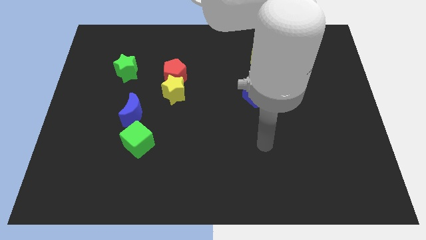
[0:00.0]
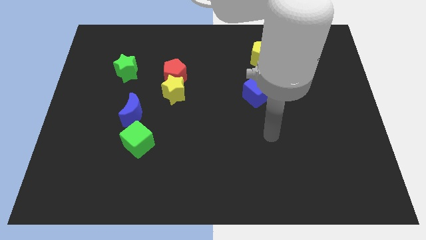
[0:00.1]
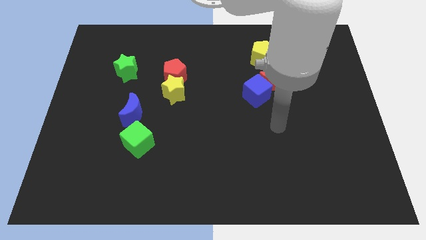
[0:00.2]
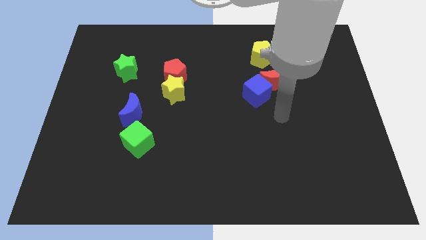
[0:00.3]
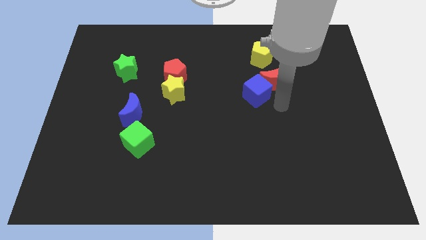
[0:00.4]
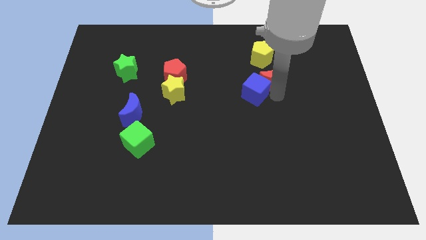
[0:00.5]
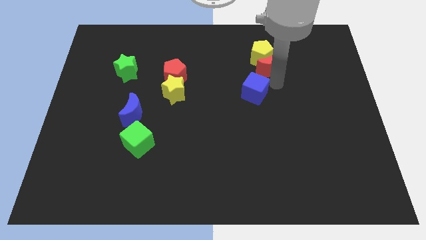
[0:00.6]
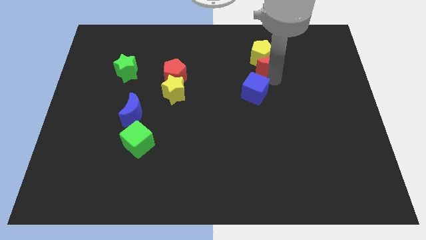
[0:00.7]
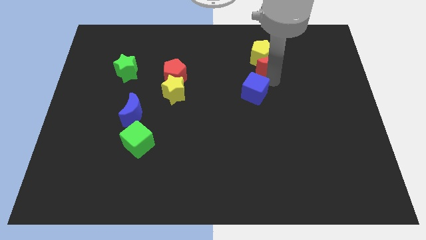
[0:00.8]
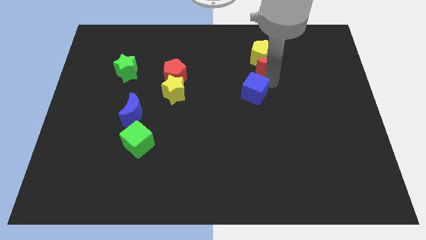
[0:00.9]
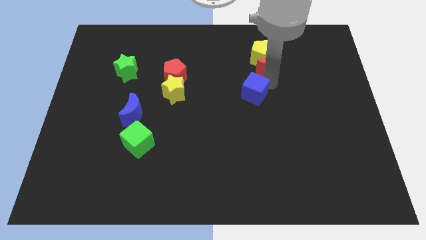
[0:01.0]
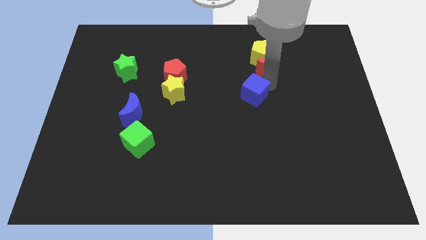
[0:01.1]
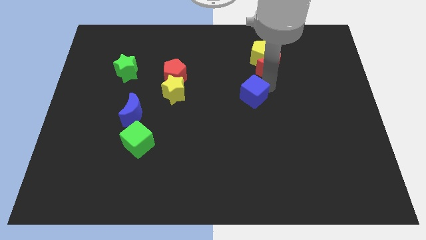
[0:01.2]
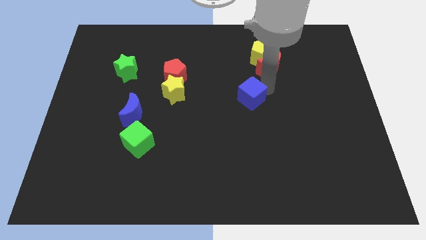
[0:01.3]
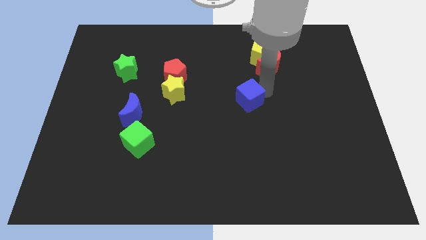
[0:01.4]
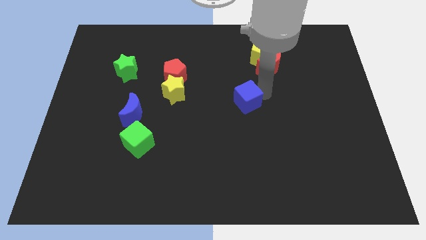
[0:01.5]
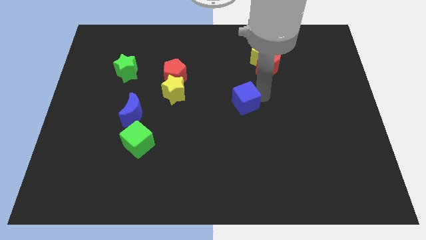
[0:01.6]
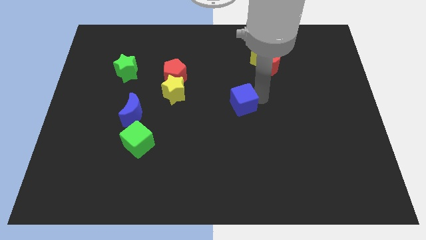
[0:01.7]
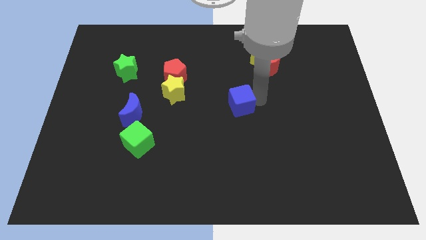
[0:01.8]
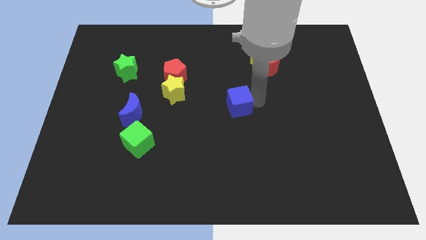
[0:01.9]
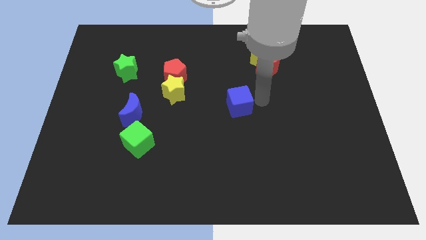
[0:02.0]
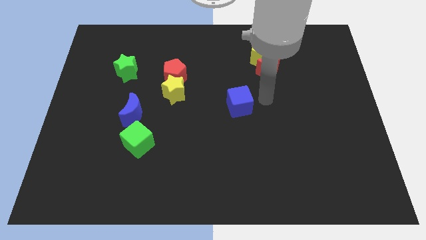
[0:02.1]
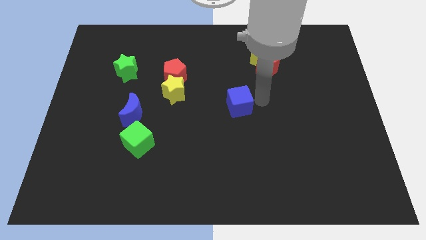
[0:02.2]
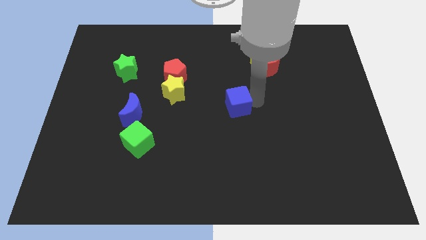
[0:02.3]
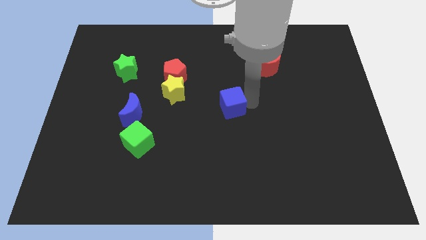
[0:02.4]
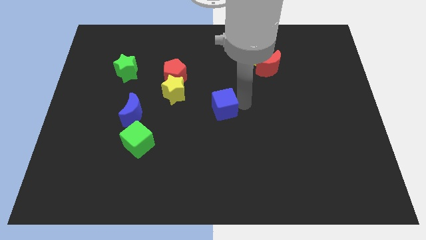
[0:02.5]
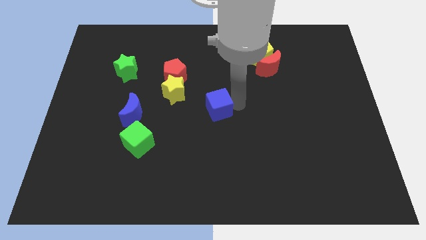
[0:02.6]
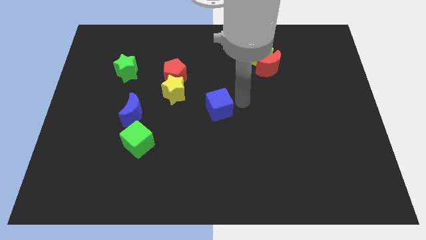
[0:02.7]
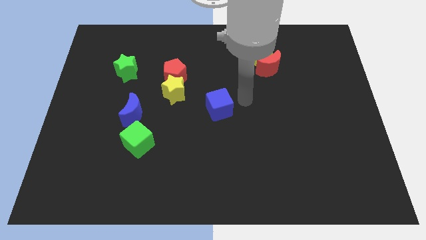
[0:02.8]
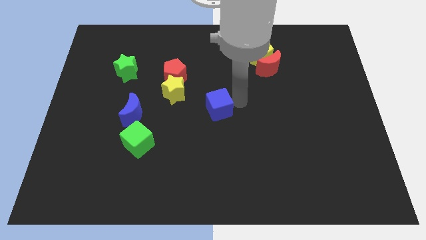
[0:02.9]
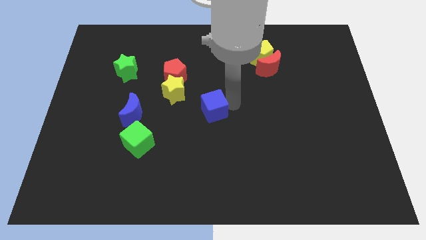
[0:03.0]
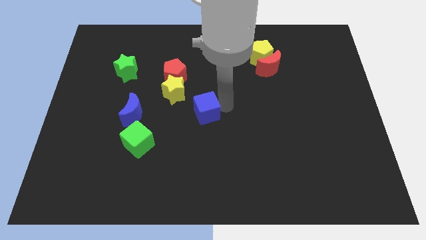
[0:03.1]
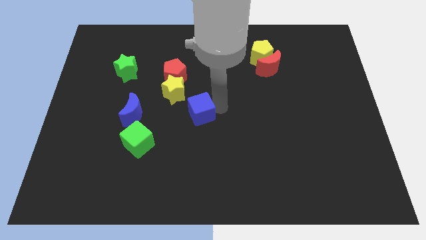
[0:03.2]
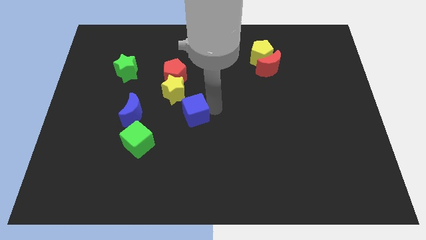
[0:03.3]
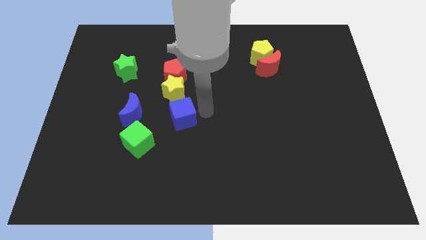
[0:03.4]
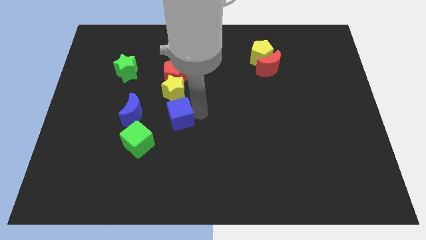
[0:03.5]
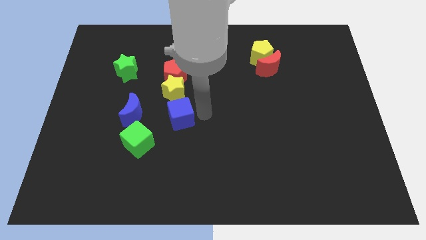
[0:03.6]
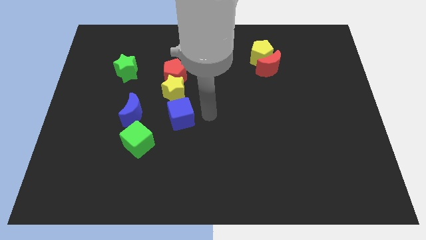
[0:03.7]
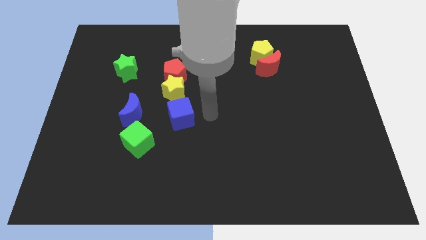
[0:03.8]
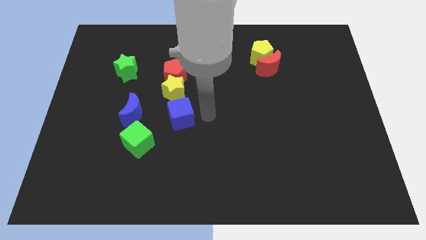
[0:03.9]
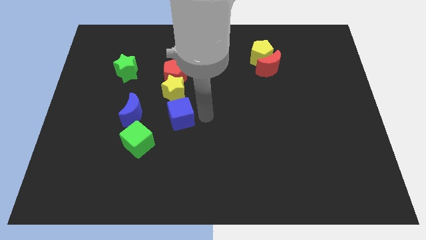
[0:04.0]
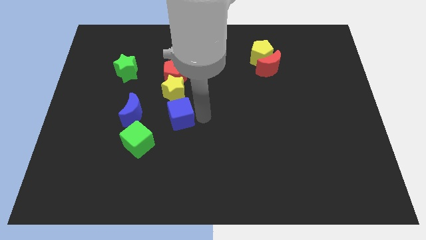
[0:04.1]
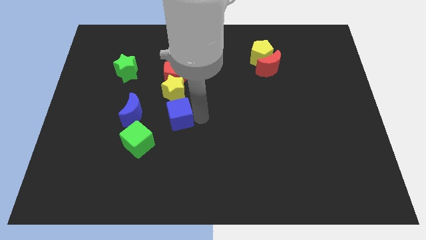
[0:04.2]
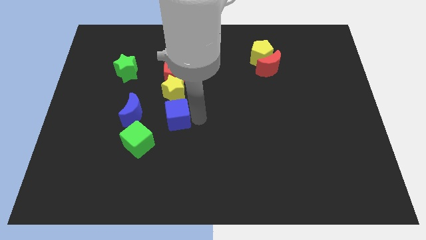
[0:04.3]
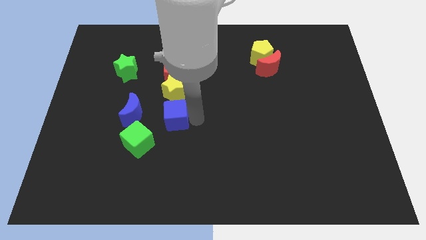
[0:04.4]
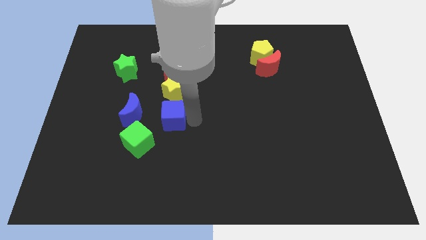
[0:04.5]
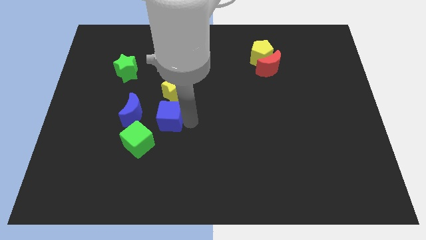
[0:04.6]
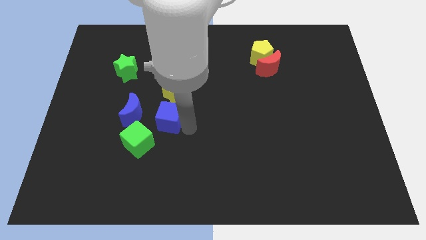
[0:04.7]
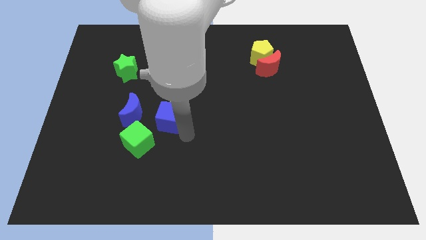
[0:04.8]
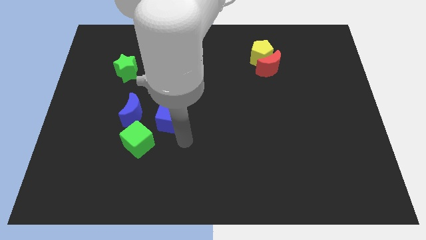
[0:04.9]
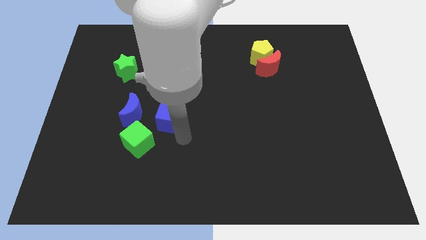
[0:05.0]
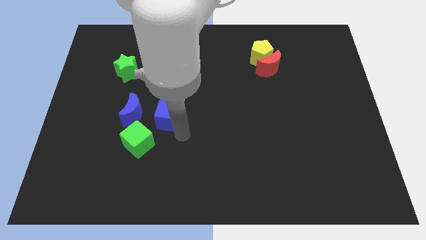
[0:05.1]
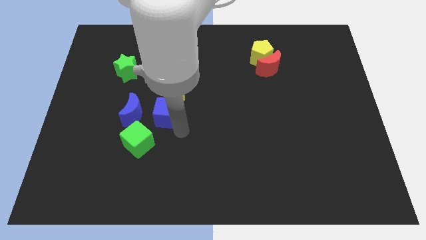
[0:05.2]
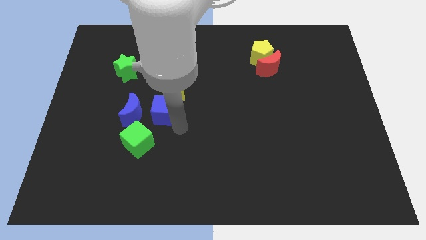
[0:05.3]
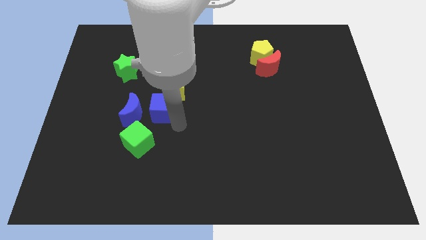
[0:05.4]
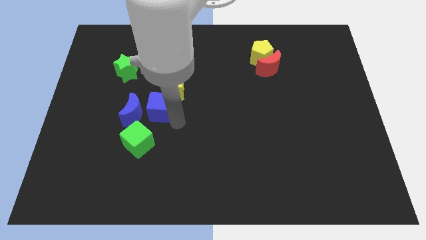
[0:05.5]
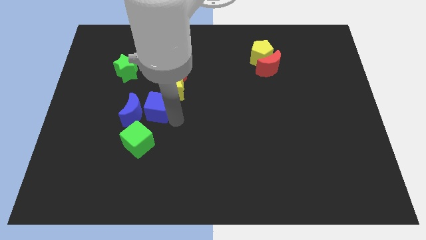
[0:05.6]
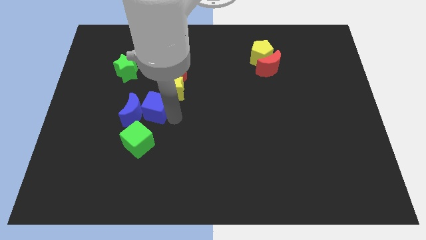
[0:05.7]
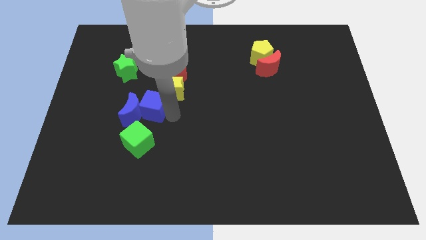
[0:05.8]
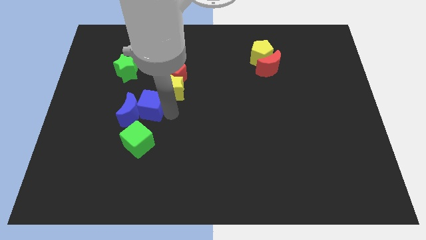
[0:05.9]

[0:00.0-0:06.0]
move the blue cube to the bottom left side of the red pentagon

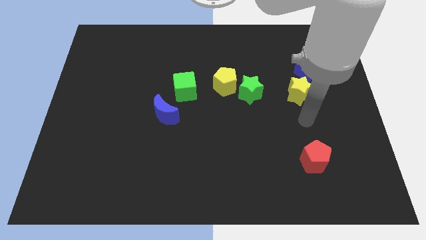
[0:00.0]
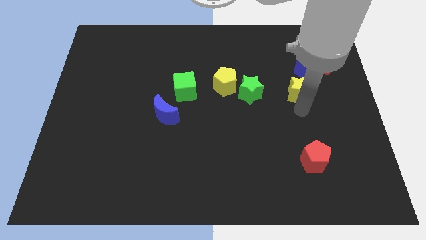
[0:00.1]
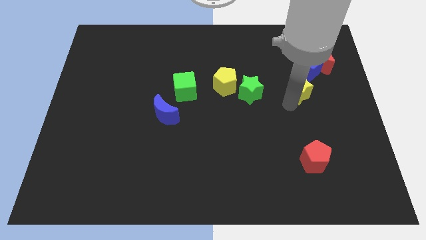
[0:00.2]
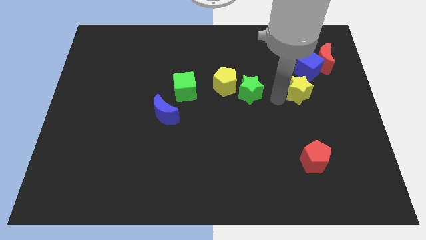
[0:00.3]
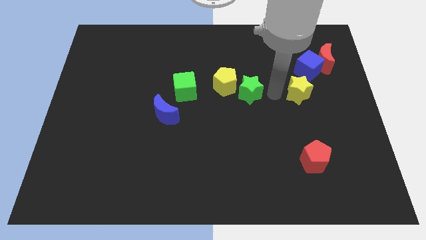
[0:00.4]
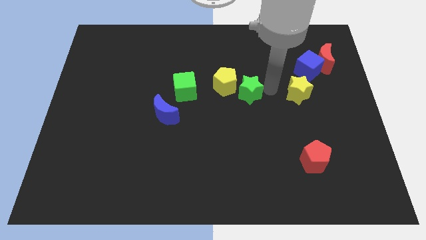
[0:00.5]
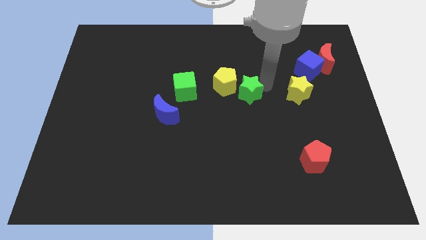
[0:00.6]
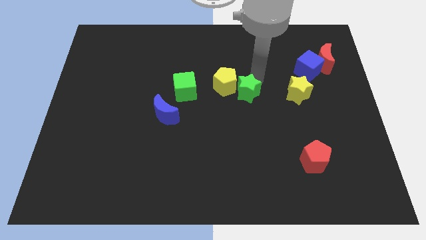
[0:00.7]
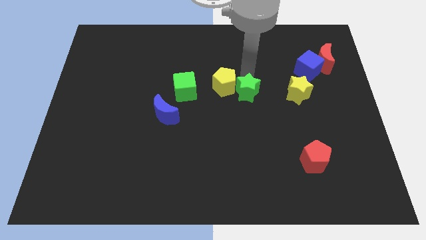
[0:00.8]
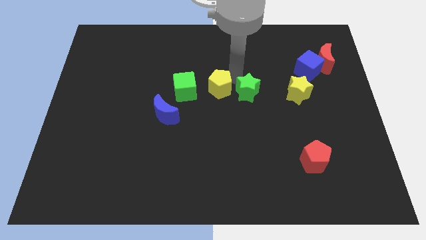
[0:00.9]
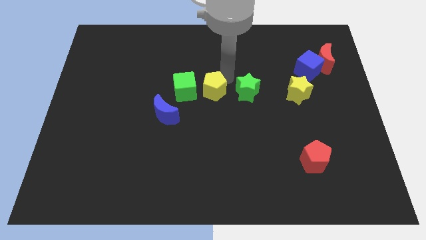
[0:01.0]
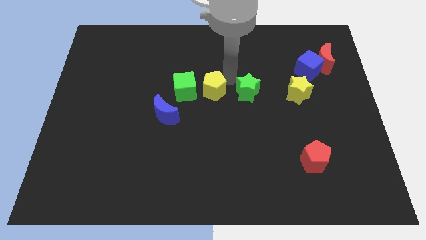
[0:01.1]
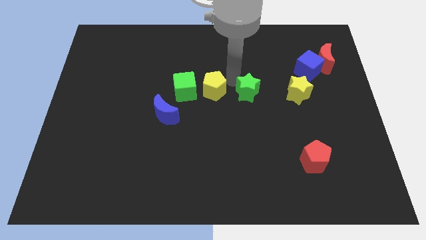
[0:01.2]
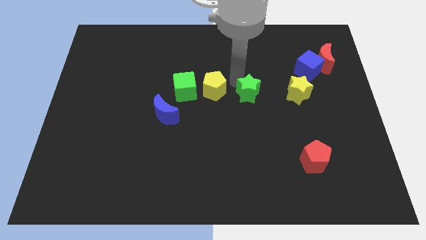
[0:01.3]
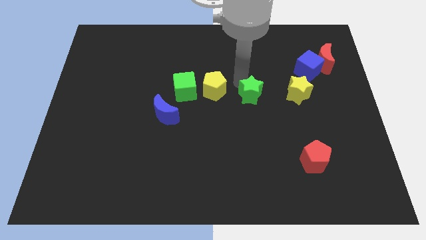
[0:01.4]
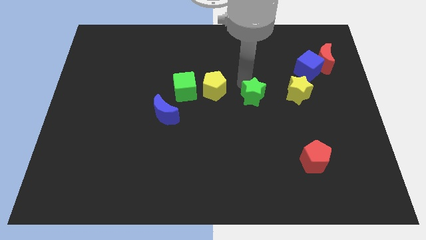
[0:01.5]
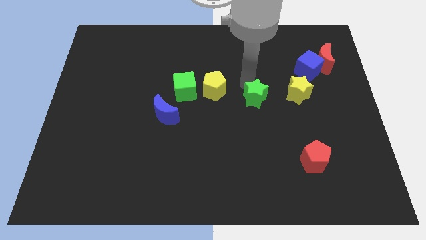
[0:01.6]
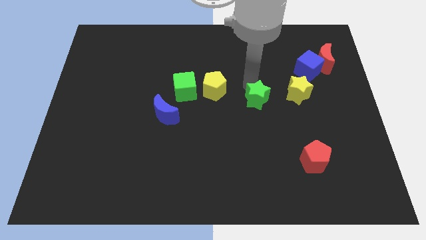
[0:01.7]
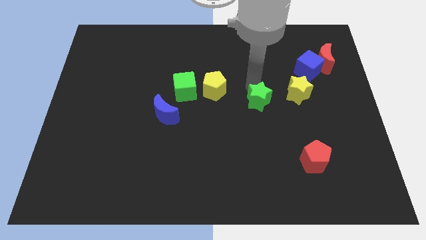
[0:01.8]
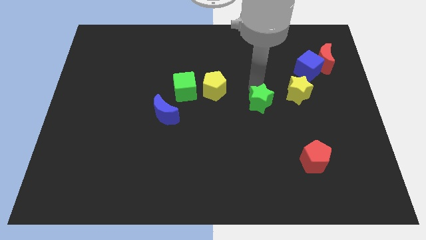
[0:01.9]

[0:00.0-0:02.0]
put the green star to the bottom left side of the yellow star
